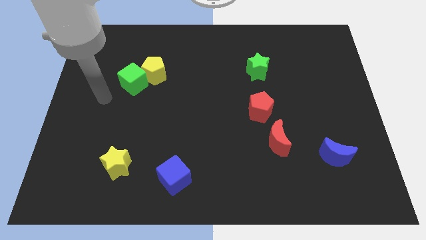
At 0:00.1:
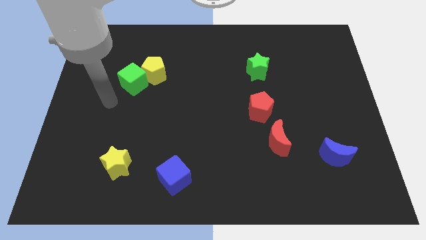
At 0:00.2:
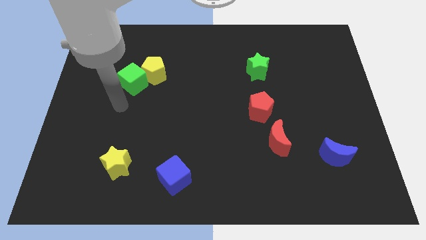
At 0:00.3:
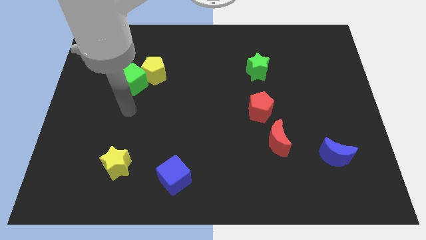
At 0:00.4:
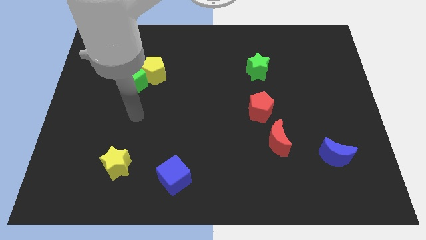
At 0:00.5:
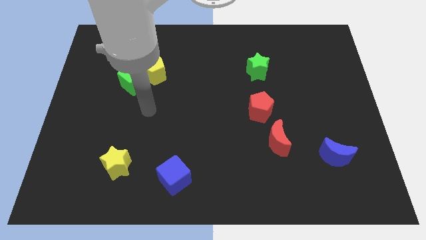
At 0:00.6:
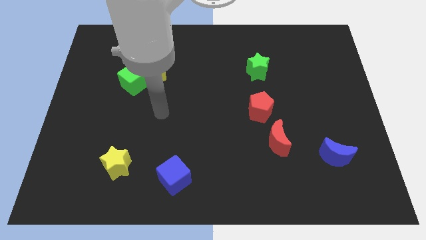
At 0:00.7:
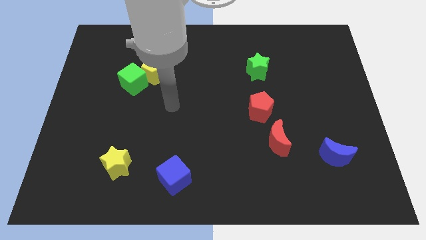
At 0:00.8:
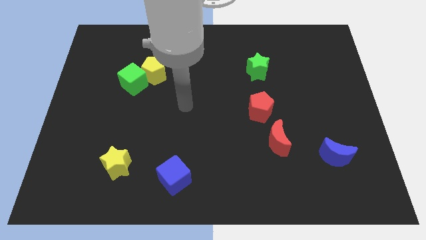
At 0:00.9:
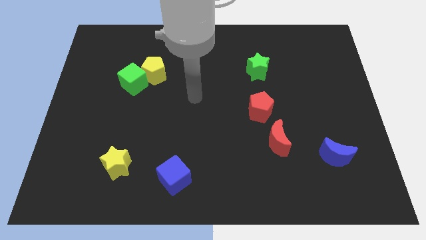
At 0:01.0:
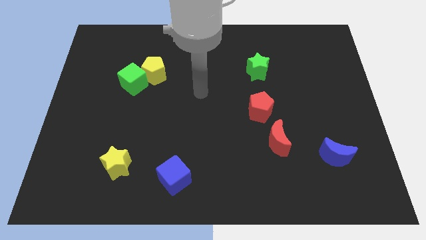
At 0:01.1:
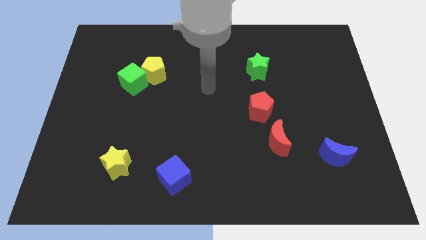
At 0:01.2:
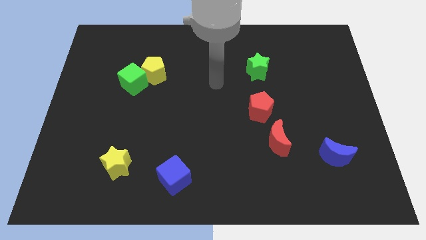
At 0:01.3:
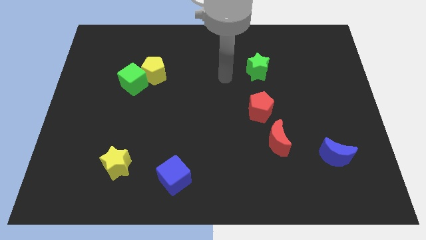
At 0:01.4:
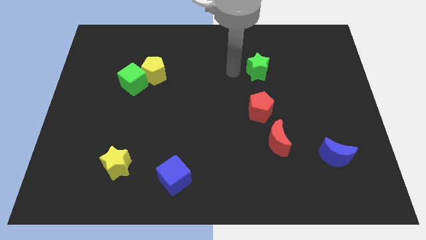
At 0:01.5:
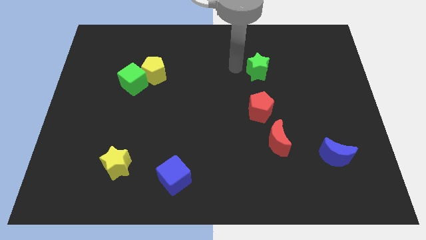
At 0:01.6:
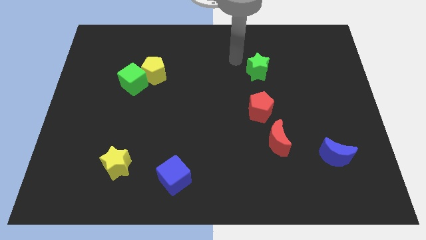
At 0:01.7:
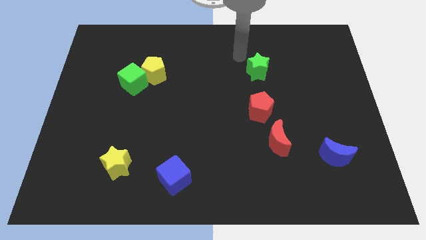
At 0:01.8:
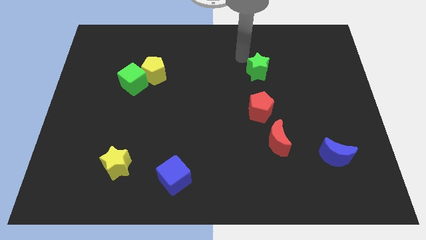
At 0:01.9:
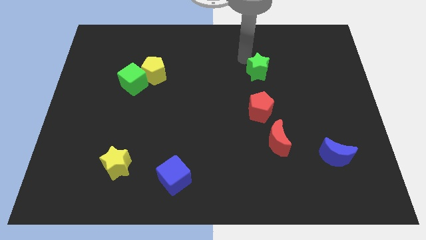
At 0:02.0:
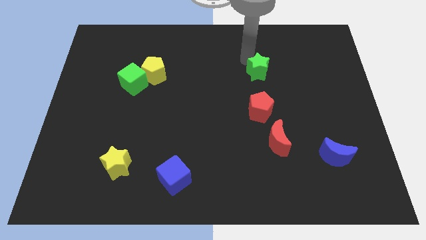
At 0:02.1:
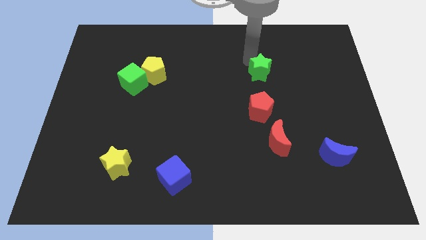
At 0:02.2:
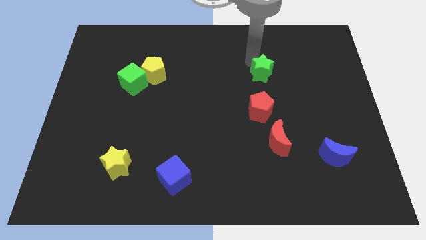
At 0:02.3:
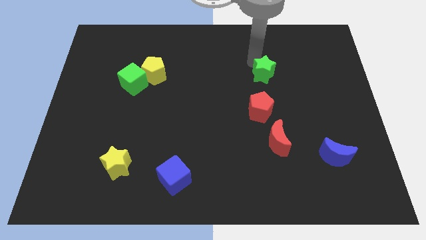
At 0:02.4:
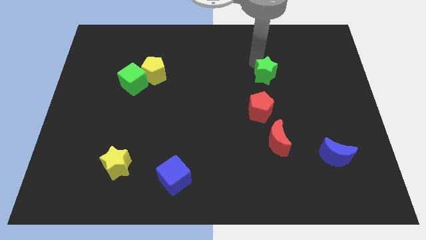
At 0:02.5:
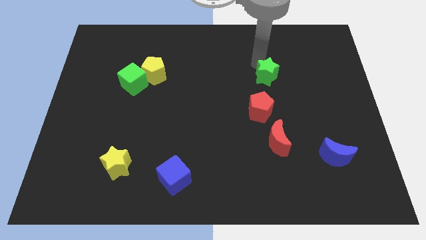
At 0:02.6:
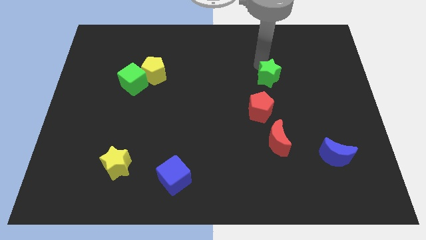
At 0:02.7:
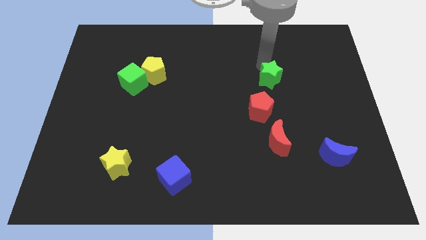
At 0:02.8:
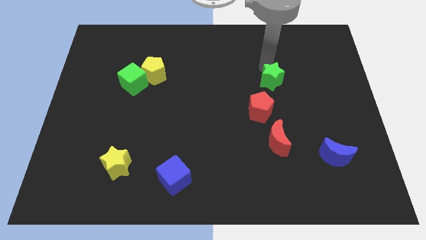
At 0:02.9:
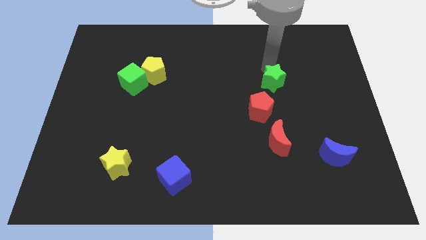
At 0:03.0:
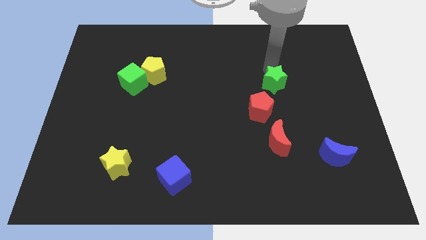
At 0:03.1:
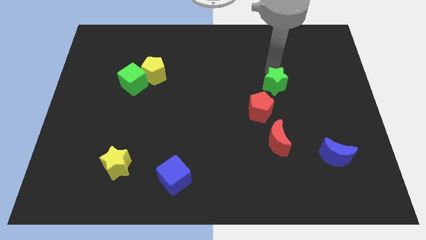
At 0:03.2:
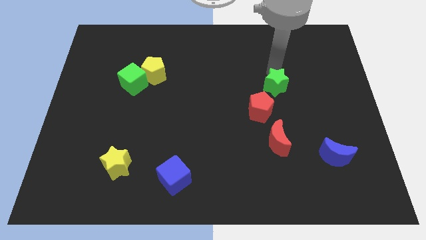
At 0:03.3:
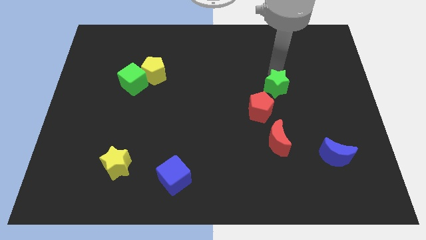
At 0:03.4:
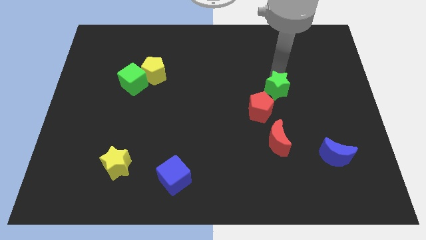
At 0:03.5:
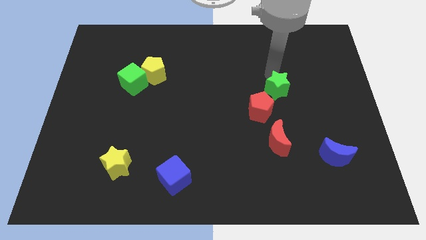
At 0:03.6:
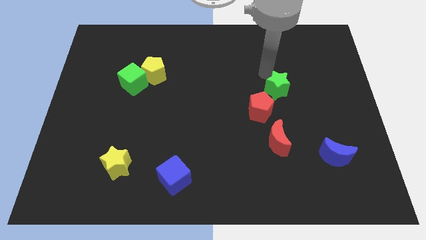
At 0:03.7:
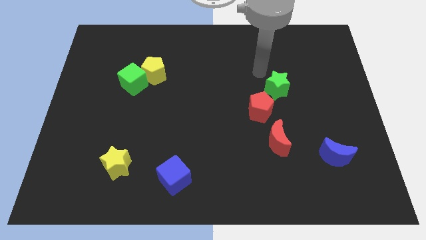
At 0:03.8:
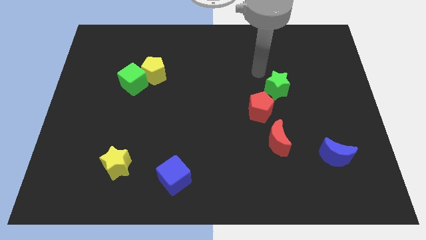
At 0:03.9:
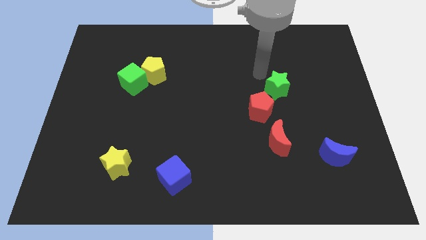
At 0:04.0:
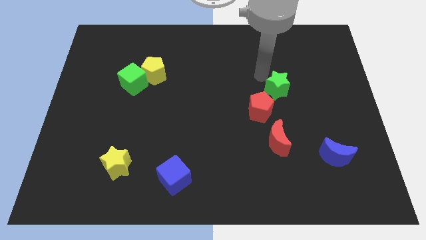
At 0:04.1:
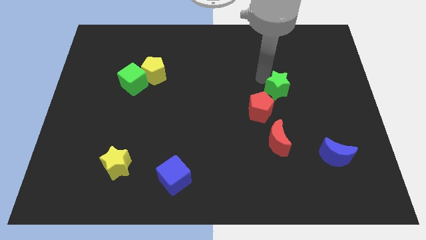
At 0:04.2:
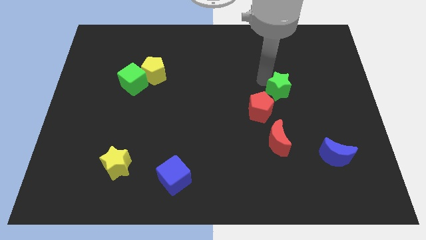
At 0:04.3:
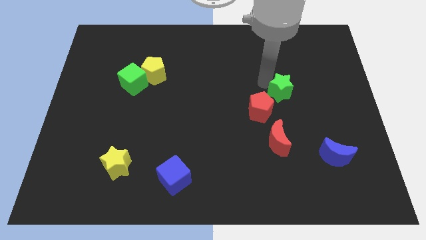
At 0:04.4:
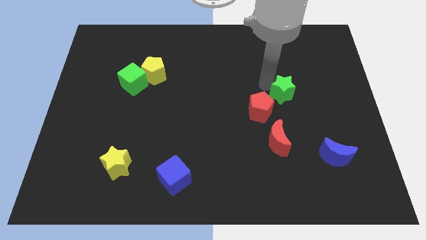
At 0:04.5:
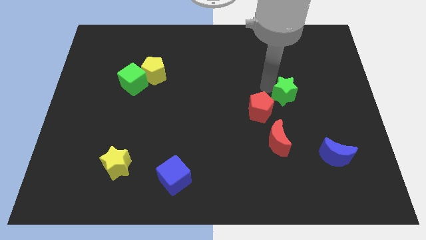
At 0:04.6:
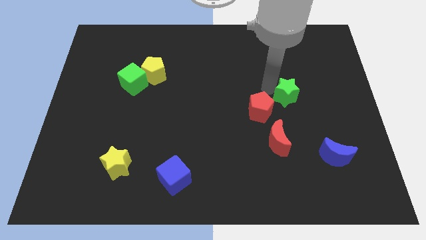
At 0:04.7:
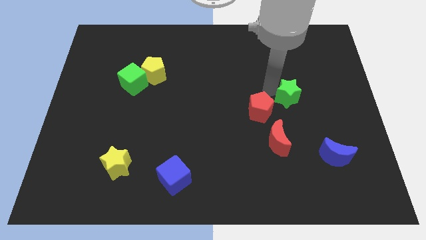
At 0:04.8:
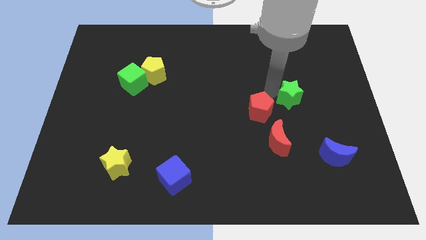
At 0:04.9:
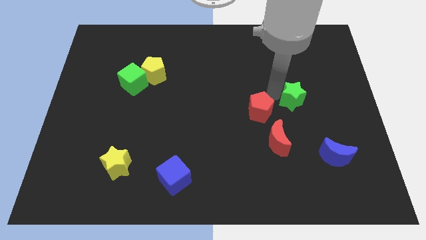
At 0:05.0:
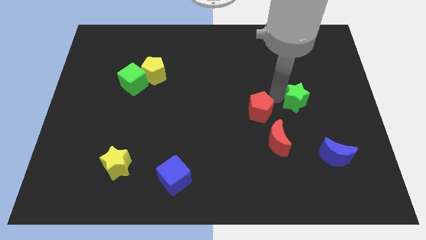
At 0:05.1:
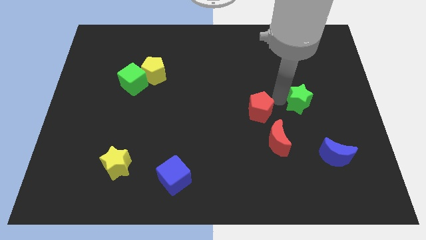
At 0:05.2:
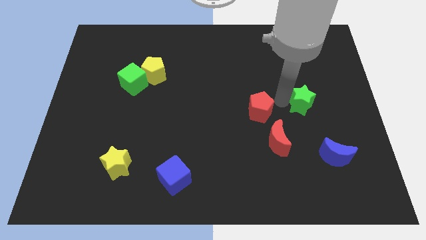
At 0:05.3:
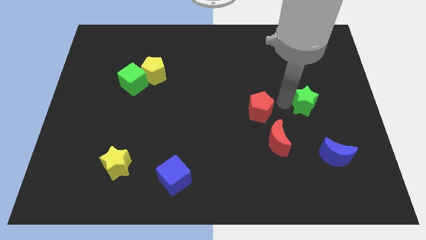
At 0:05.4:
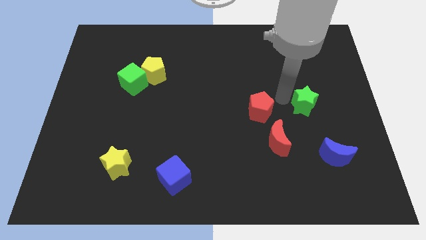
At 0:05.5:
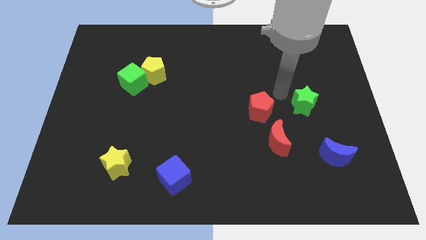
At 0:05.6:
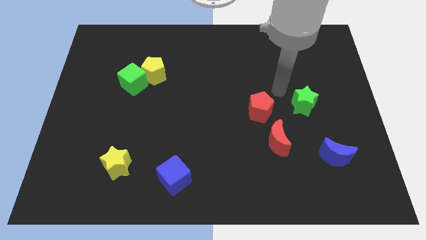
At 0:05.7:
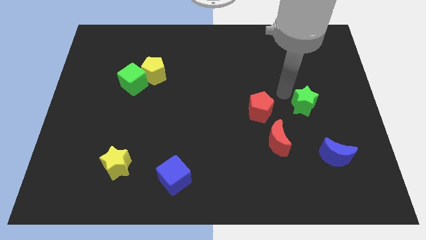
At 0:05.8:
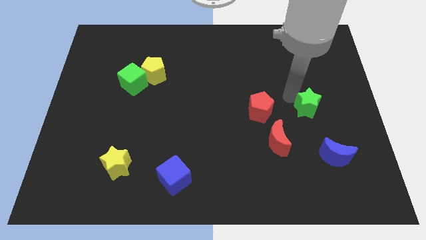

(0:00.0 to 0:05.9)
slide the green star above the blue moon

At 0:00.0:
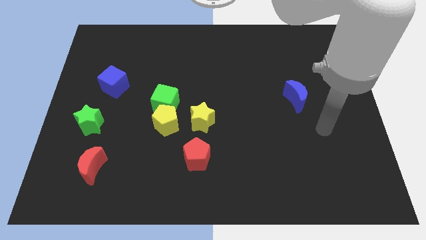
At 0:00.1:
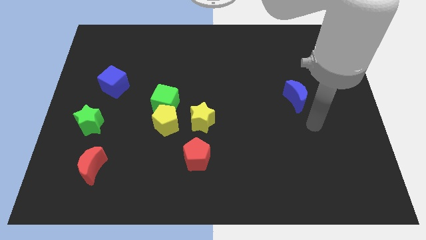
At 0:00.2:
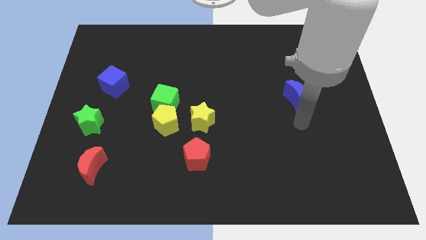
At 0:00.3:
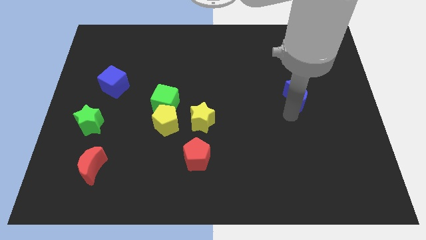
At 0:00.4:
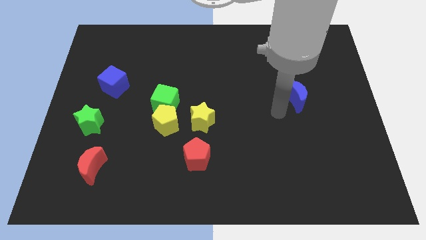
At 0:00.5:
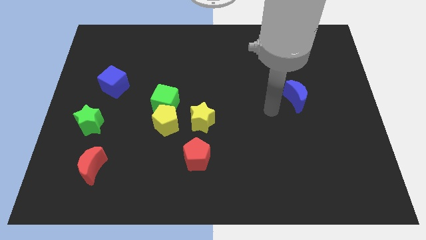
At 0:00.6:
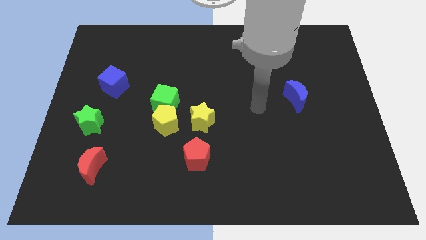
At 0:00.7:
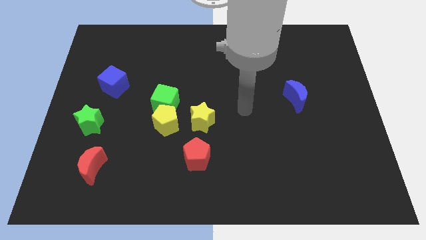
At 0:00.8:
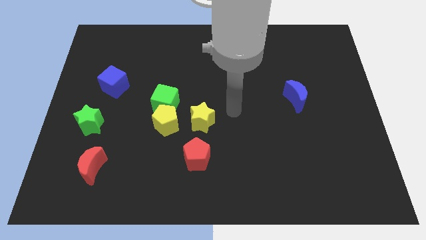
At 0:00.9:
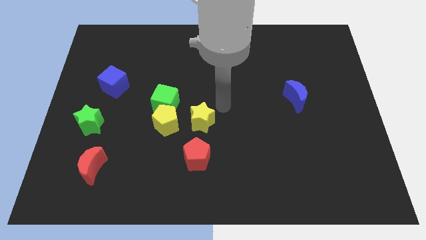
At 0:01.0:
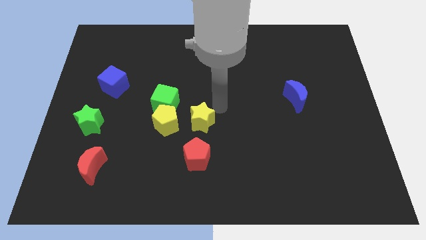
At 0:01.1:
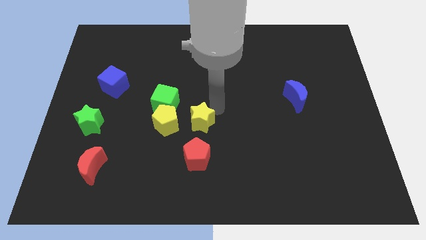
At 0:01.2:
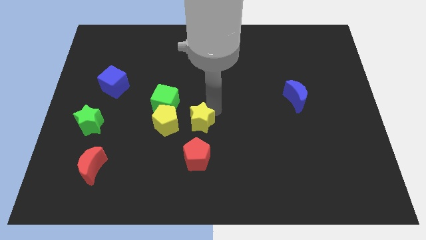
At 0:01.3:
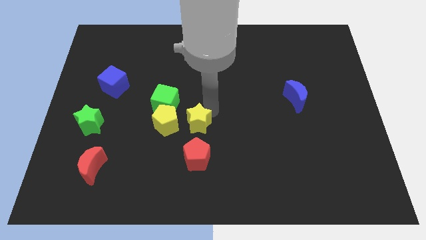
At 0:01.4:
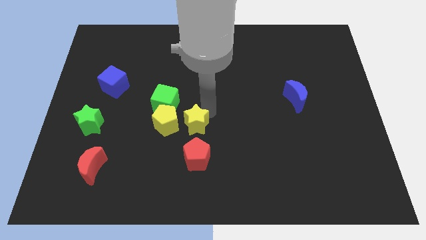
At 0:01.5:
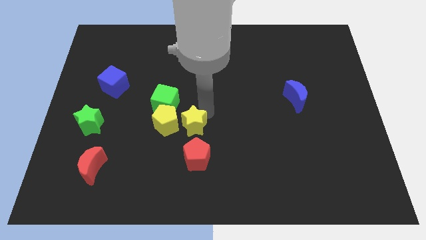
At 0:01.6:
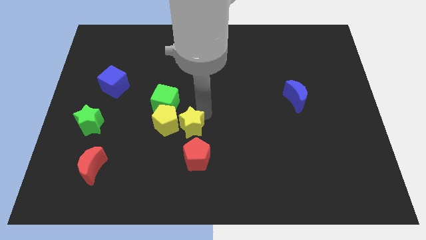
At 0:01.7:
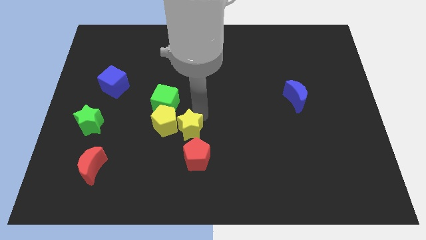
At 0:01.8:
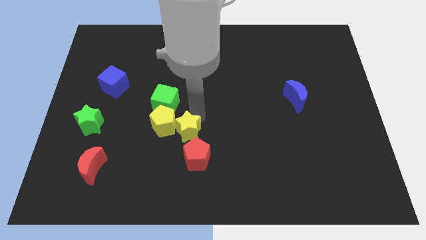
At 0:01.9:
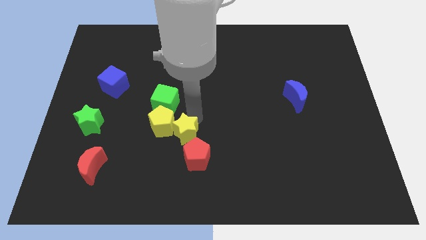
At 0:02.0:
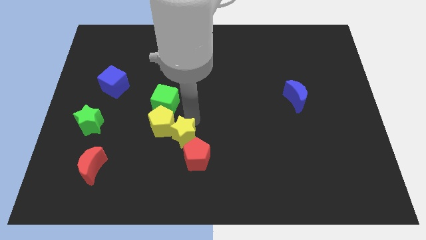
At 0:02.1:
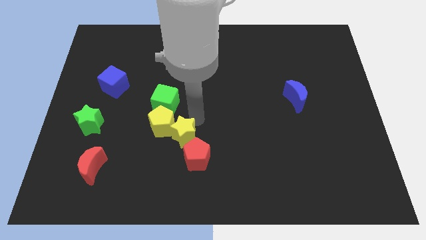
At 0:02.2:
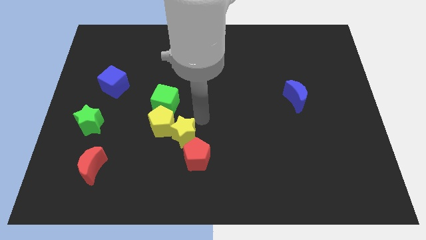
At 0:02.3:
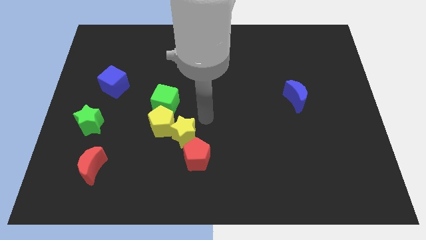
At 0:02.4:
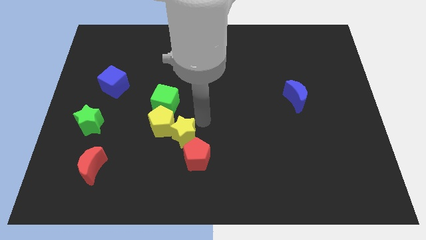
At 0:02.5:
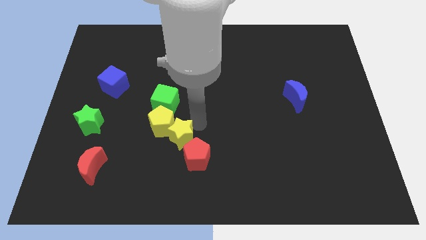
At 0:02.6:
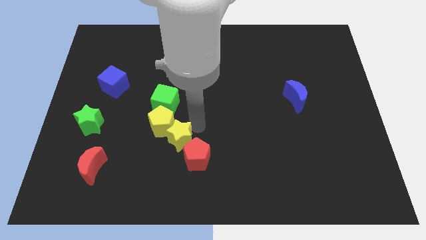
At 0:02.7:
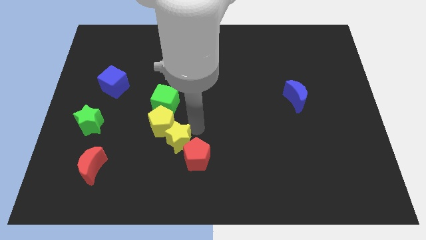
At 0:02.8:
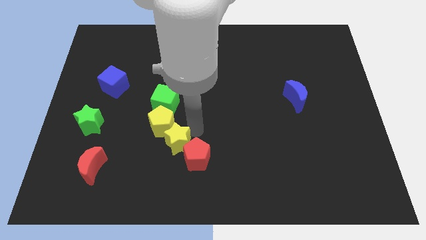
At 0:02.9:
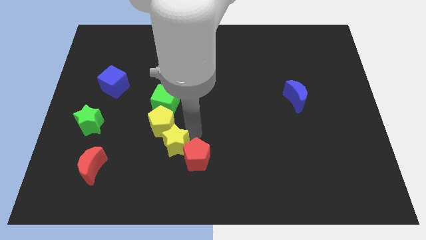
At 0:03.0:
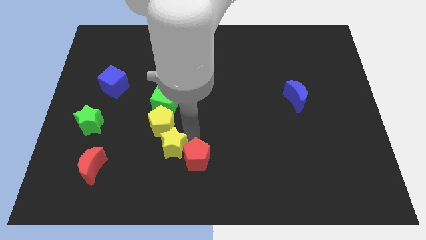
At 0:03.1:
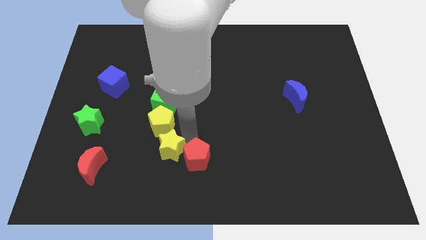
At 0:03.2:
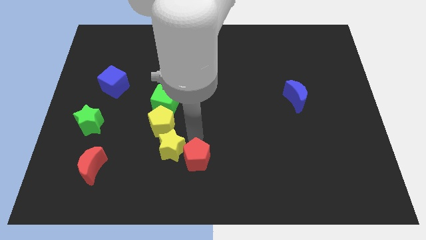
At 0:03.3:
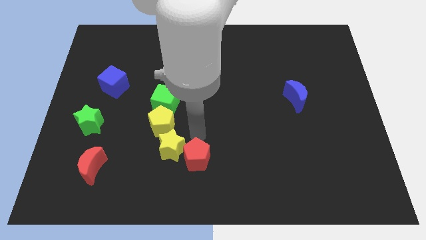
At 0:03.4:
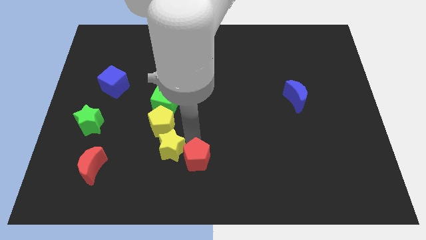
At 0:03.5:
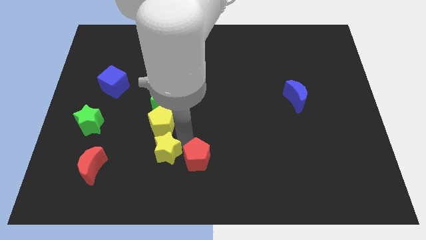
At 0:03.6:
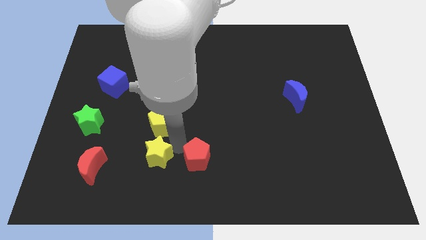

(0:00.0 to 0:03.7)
move the yellow star to the right of the red moon
